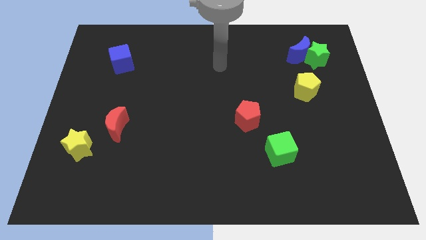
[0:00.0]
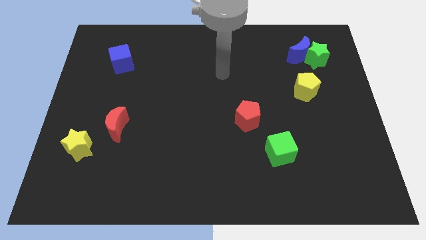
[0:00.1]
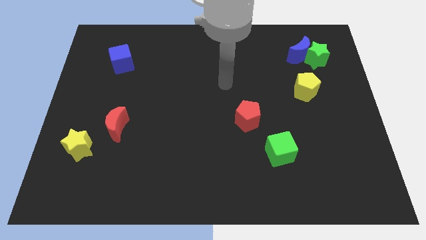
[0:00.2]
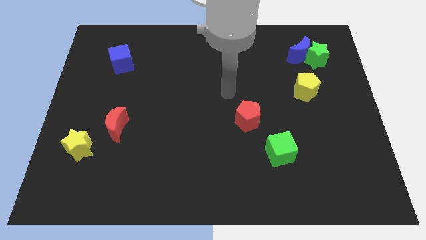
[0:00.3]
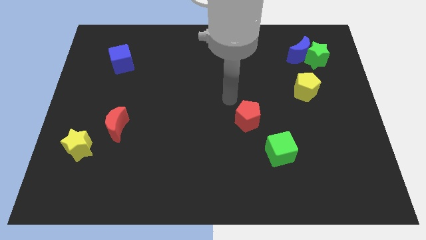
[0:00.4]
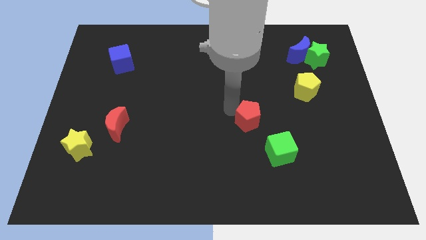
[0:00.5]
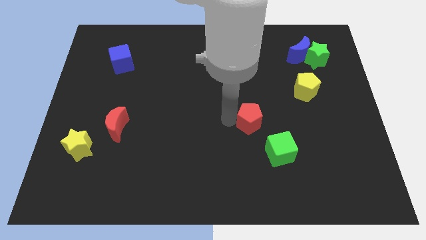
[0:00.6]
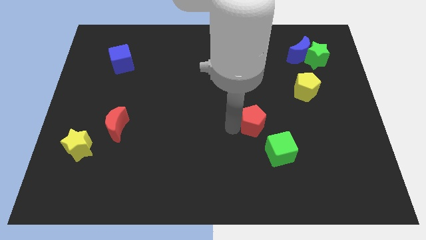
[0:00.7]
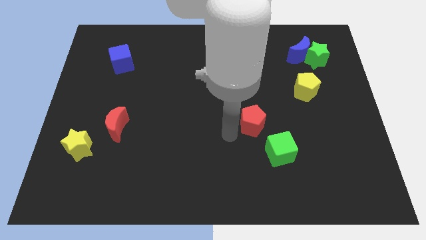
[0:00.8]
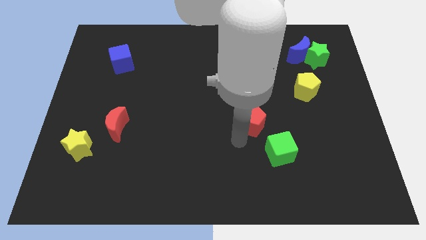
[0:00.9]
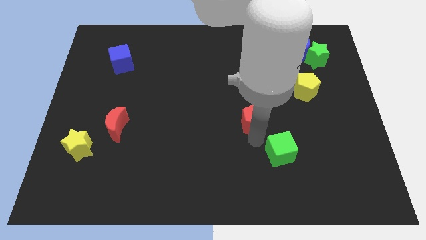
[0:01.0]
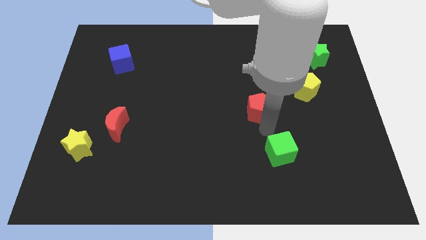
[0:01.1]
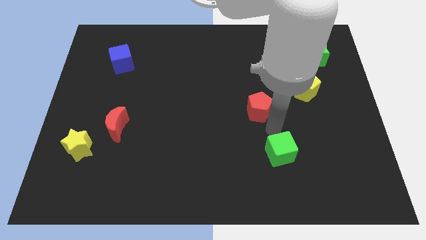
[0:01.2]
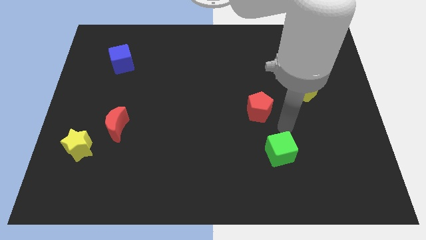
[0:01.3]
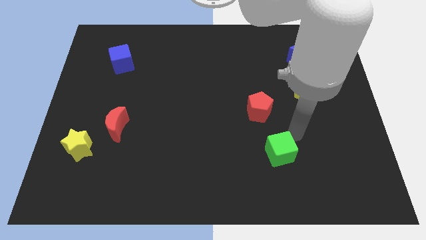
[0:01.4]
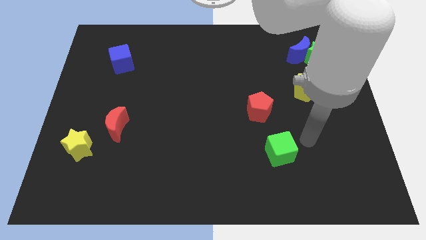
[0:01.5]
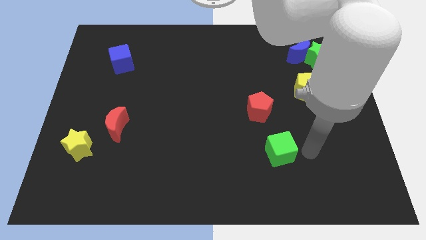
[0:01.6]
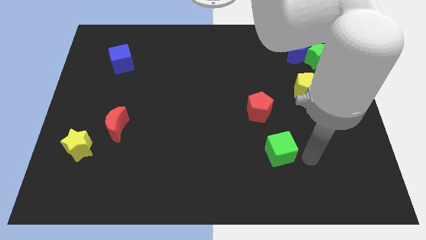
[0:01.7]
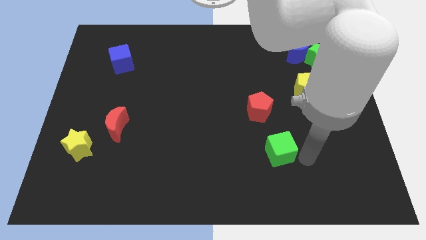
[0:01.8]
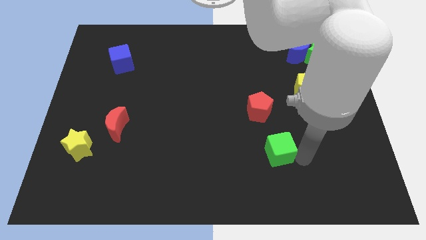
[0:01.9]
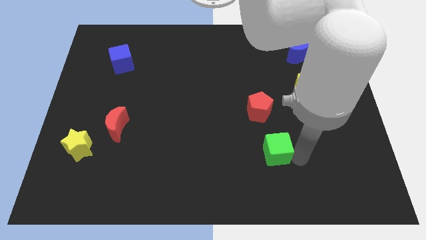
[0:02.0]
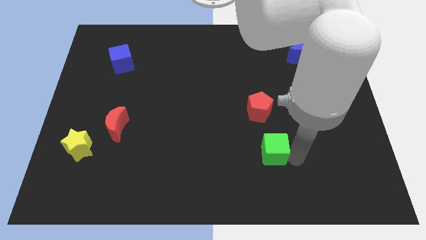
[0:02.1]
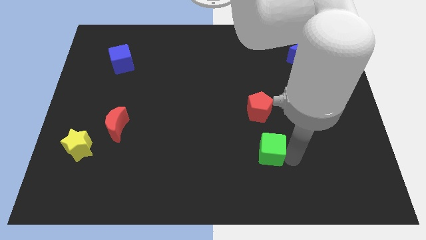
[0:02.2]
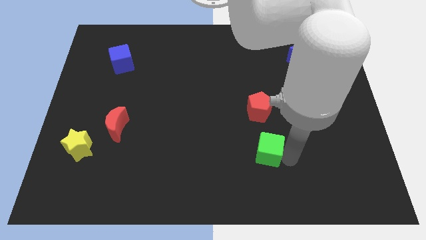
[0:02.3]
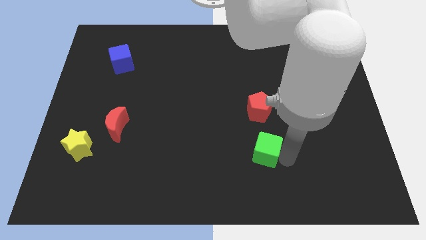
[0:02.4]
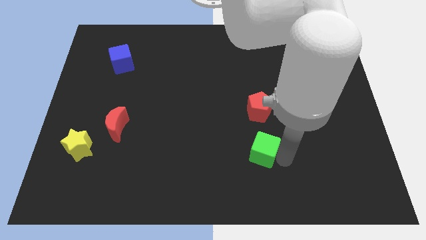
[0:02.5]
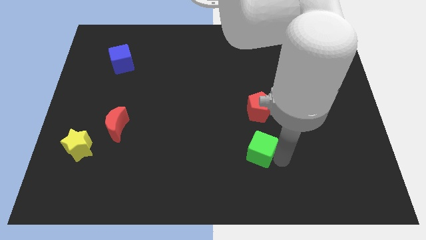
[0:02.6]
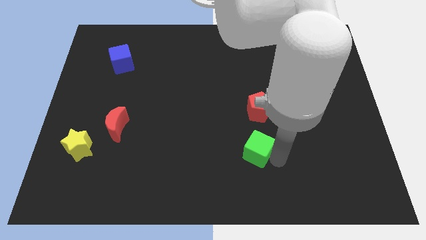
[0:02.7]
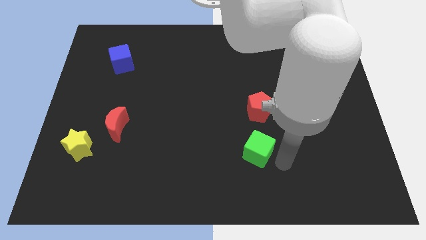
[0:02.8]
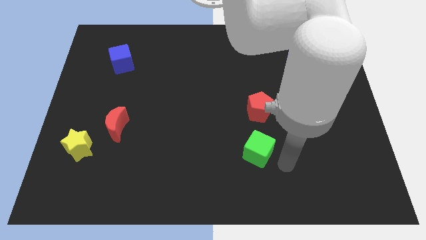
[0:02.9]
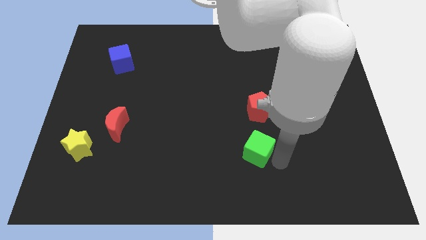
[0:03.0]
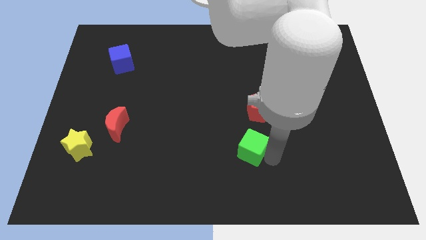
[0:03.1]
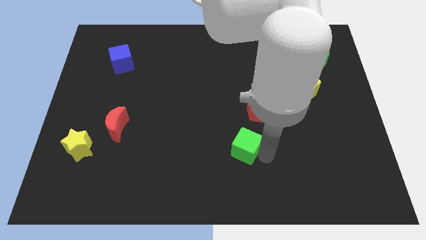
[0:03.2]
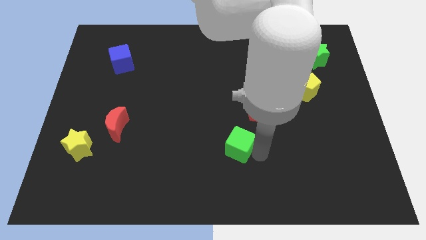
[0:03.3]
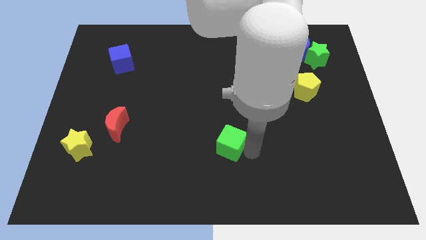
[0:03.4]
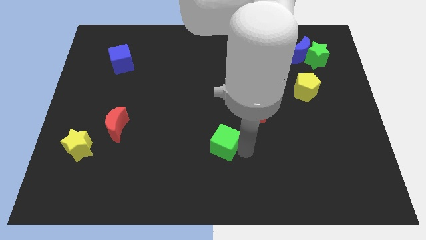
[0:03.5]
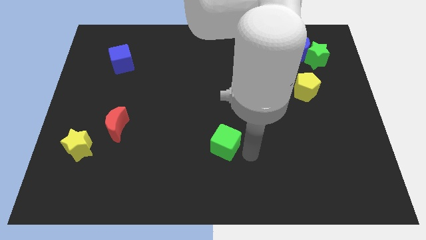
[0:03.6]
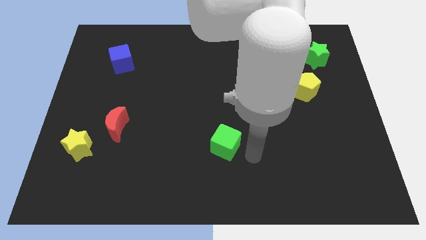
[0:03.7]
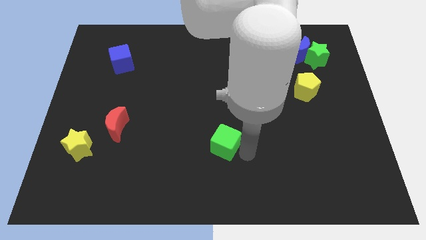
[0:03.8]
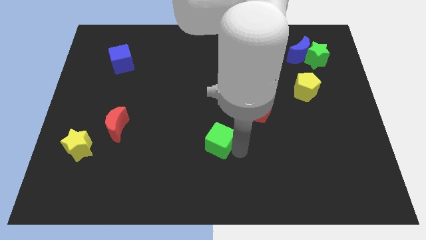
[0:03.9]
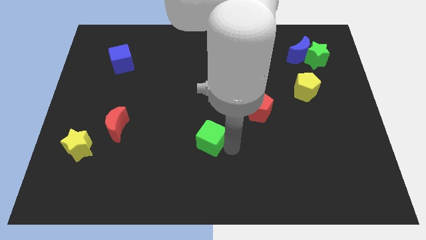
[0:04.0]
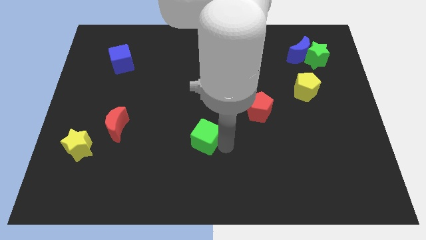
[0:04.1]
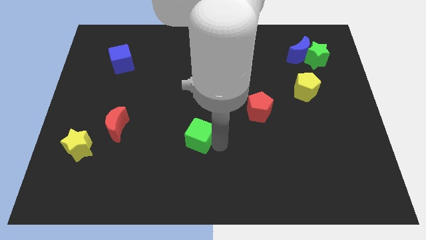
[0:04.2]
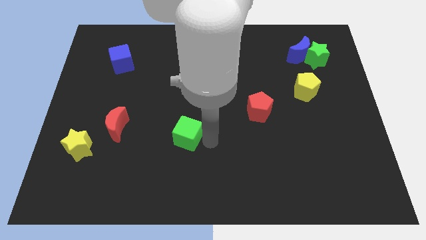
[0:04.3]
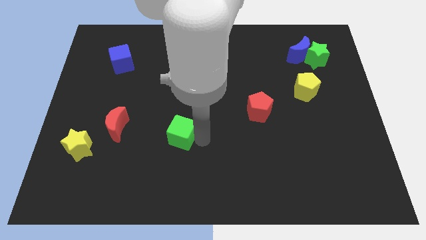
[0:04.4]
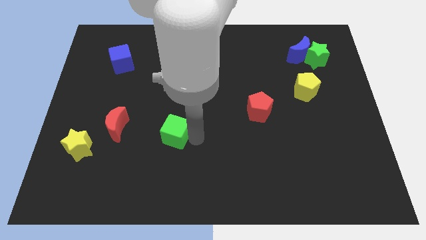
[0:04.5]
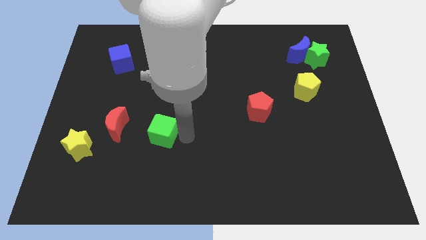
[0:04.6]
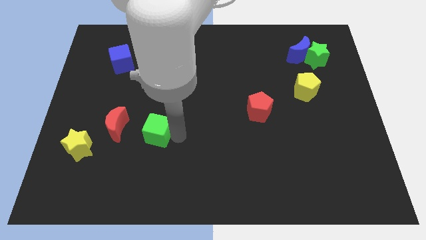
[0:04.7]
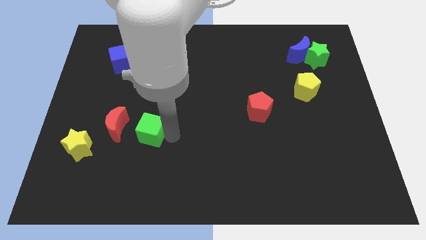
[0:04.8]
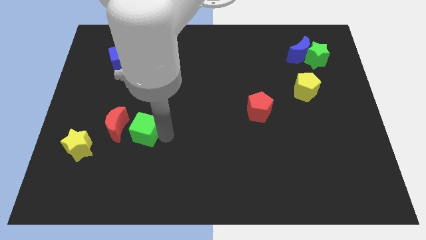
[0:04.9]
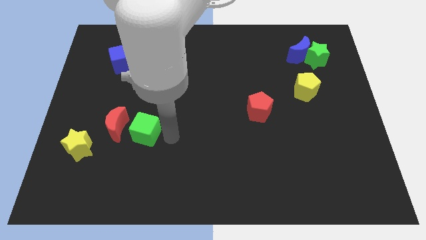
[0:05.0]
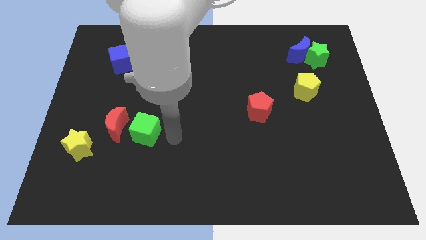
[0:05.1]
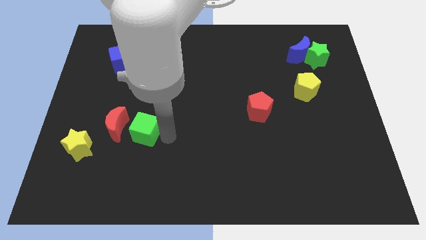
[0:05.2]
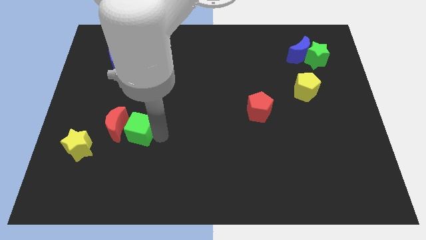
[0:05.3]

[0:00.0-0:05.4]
move the green cube next to the red moon

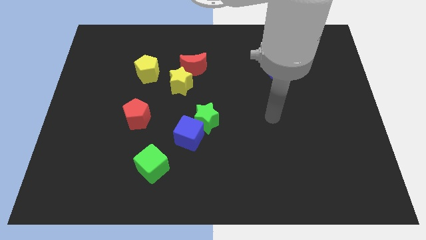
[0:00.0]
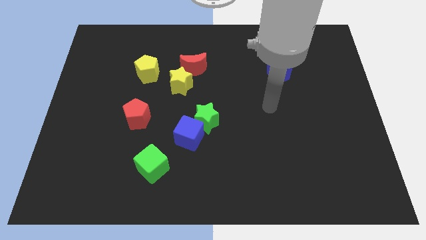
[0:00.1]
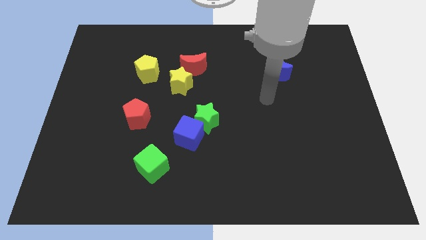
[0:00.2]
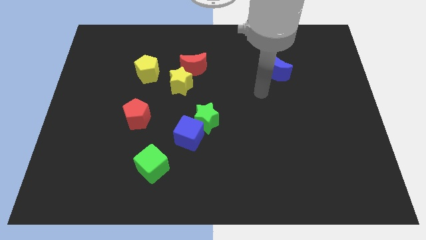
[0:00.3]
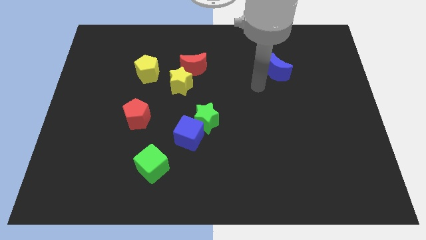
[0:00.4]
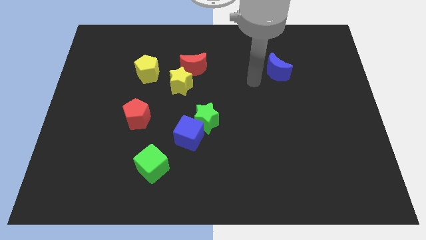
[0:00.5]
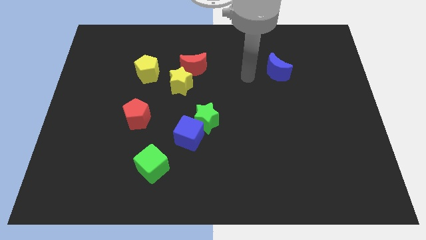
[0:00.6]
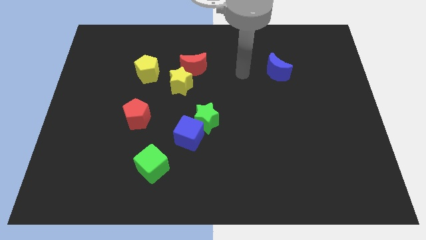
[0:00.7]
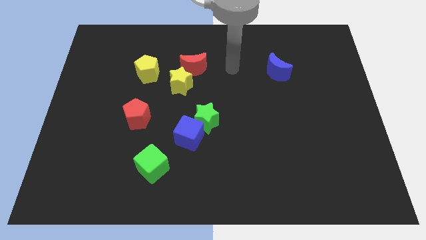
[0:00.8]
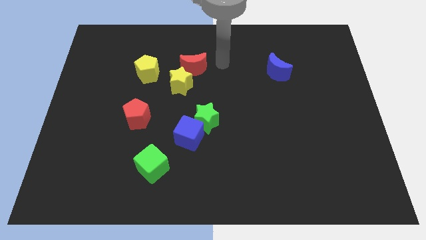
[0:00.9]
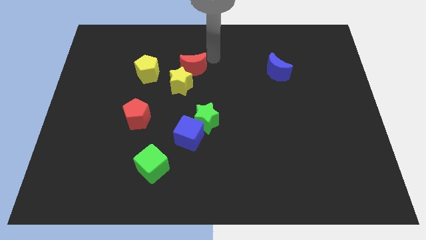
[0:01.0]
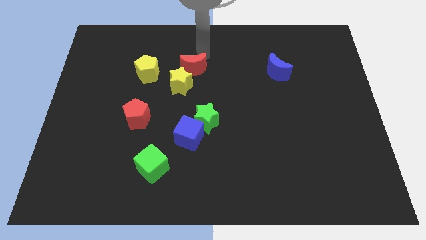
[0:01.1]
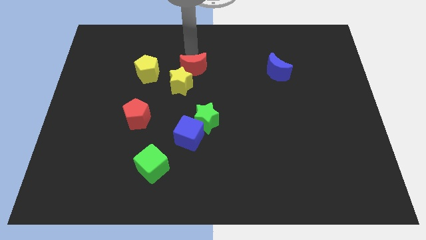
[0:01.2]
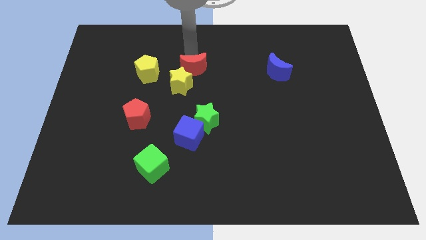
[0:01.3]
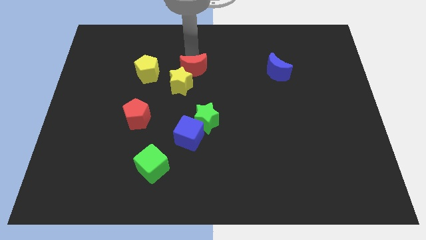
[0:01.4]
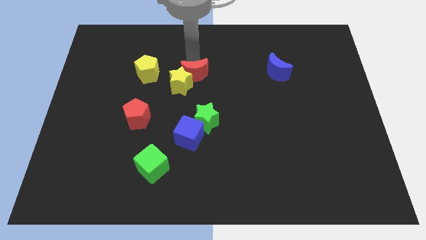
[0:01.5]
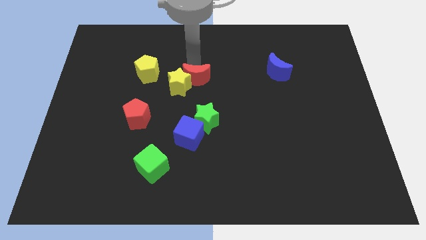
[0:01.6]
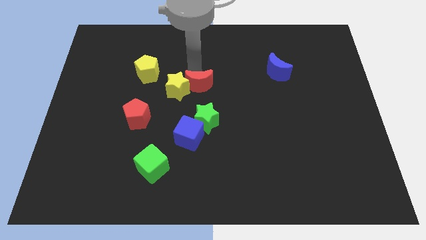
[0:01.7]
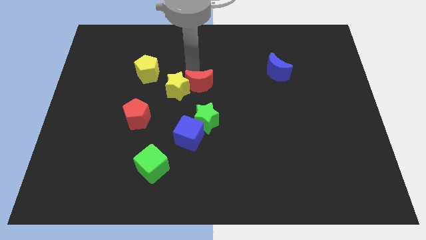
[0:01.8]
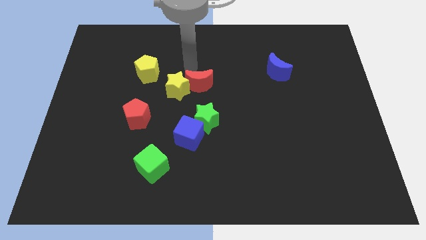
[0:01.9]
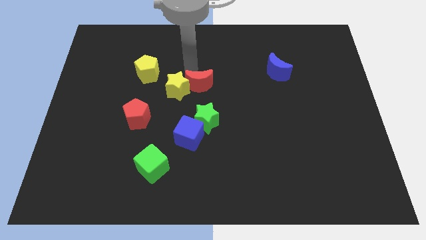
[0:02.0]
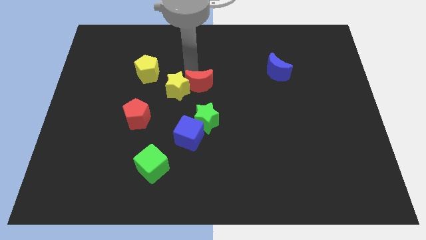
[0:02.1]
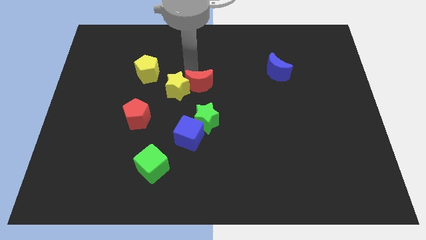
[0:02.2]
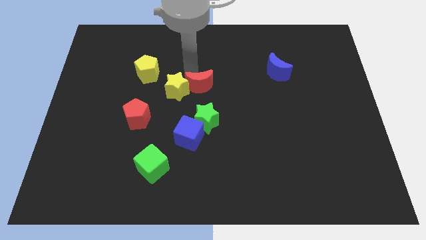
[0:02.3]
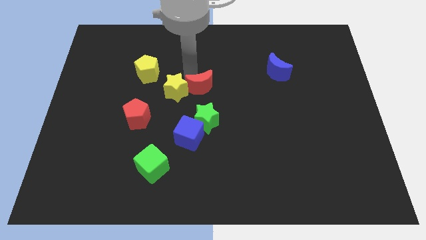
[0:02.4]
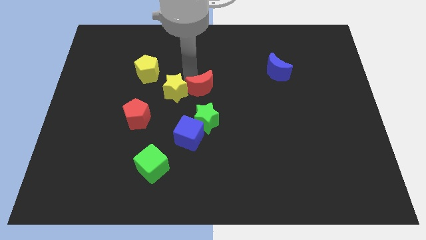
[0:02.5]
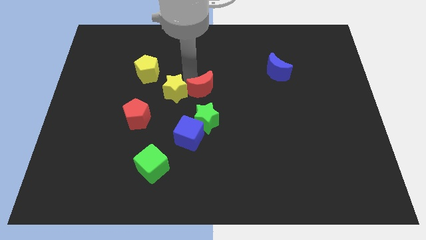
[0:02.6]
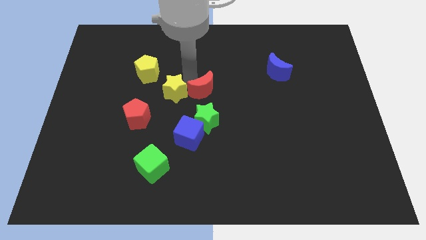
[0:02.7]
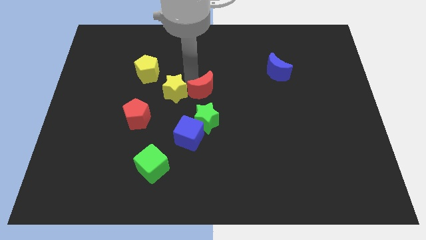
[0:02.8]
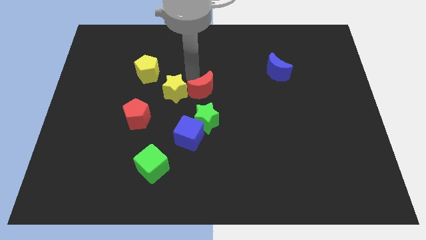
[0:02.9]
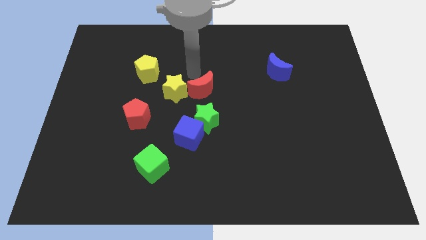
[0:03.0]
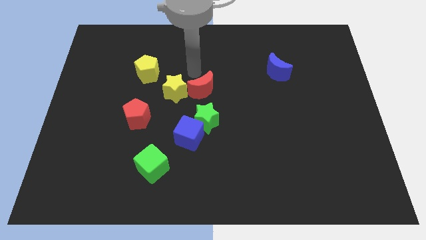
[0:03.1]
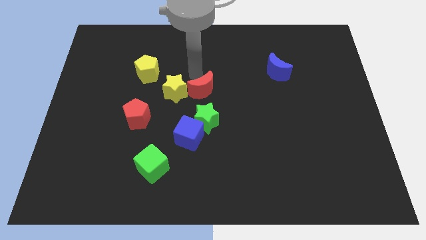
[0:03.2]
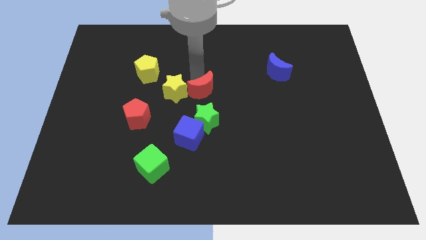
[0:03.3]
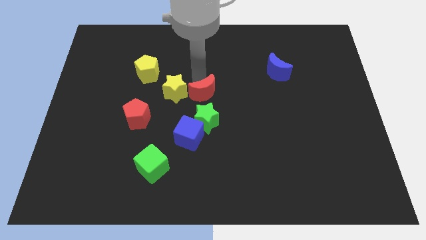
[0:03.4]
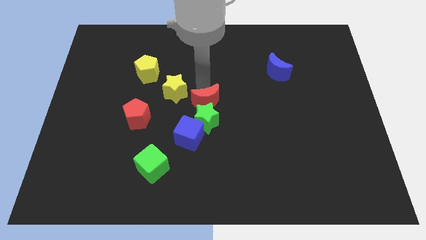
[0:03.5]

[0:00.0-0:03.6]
push the red moon to the green star
